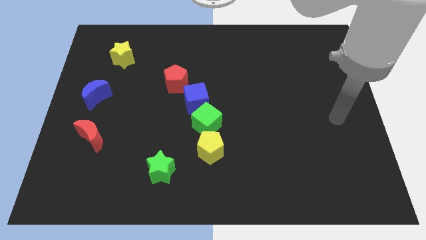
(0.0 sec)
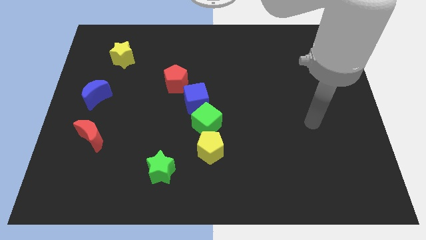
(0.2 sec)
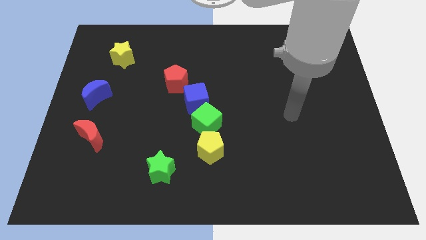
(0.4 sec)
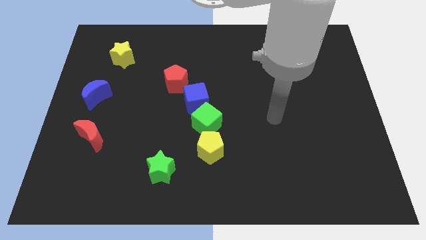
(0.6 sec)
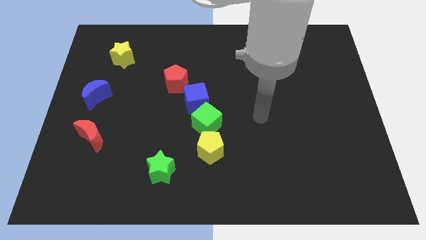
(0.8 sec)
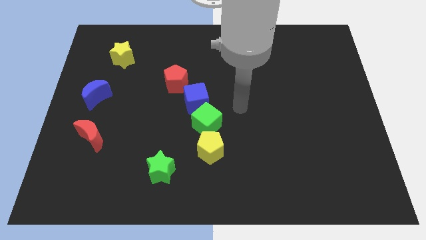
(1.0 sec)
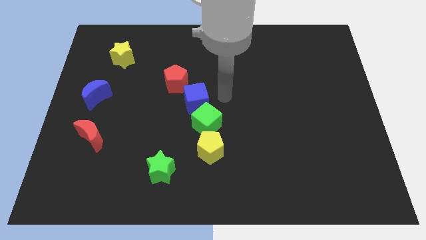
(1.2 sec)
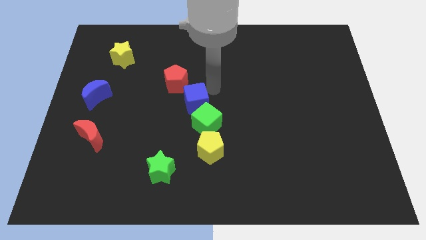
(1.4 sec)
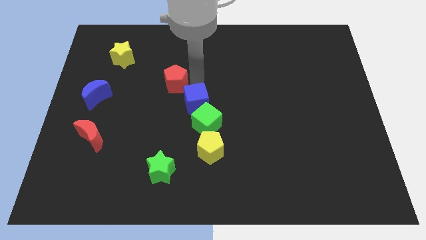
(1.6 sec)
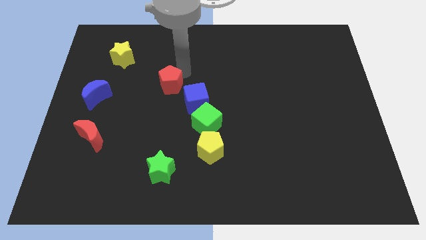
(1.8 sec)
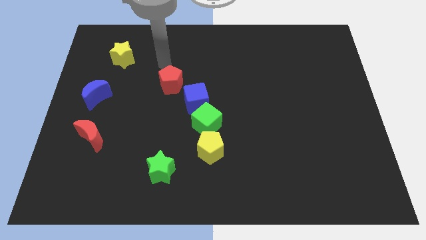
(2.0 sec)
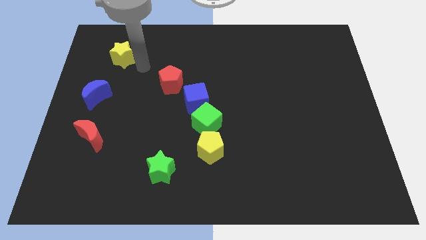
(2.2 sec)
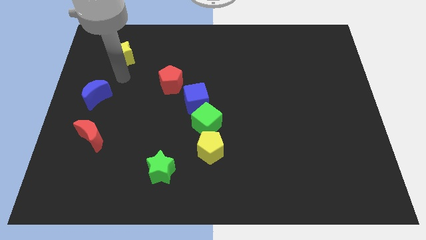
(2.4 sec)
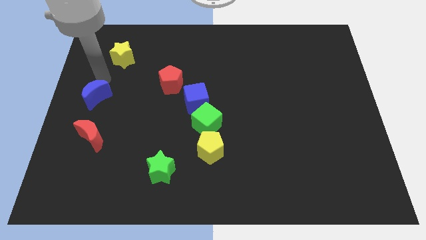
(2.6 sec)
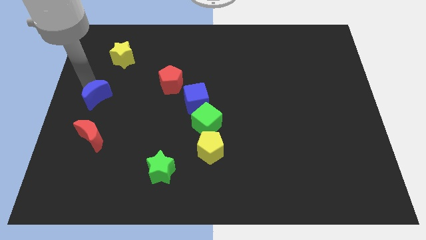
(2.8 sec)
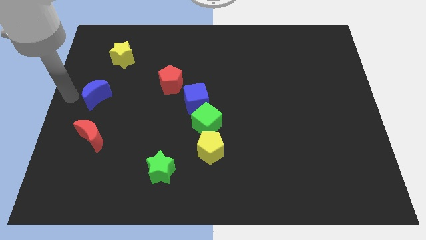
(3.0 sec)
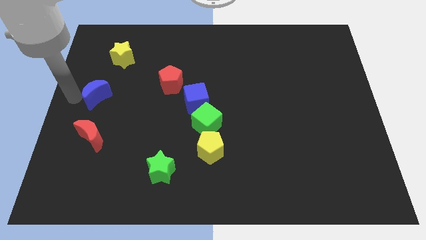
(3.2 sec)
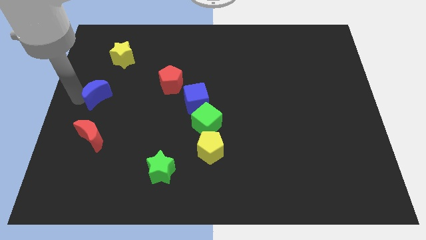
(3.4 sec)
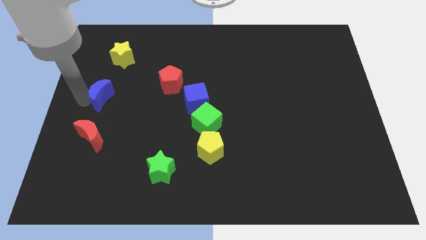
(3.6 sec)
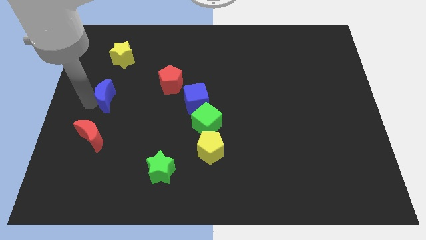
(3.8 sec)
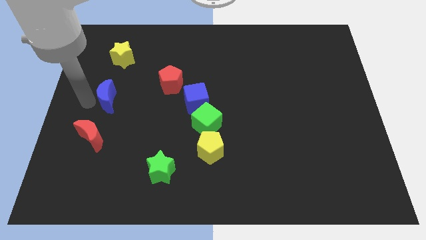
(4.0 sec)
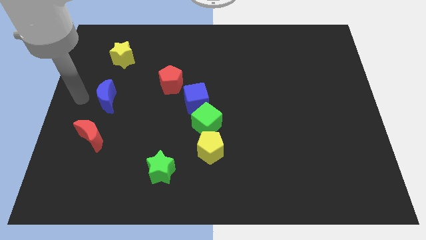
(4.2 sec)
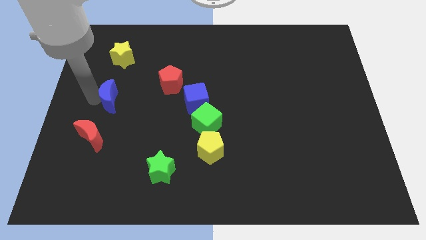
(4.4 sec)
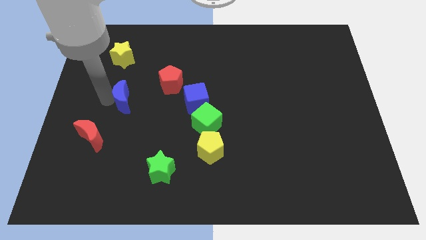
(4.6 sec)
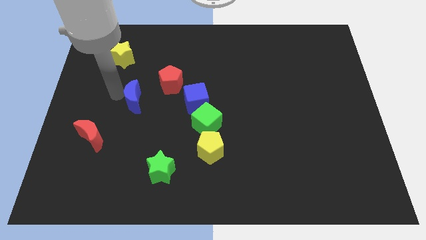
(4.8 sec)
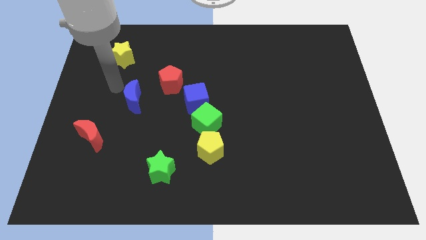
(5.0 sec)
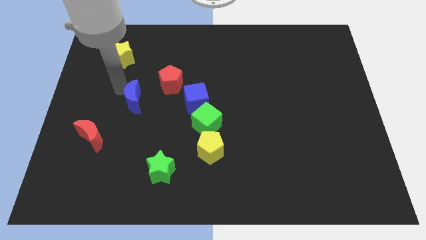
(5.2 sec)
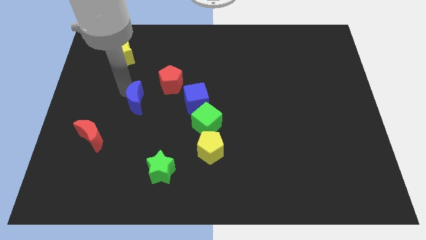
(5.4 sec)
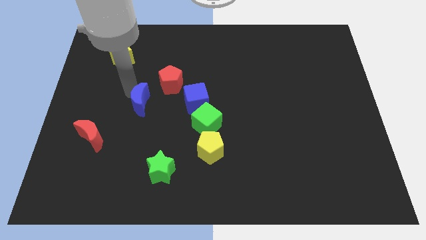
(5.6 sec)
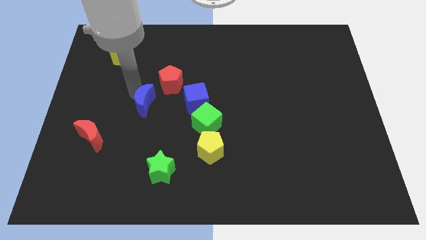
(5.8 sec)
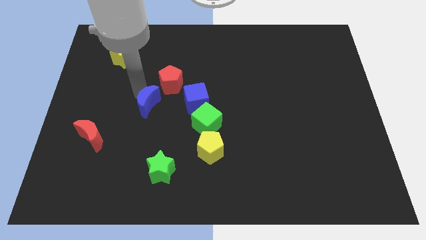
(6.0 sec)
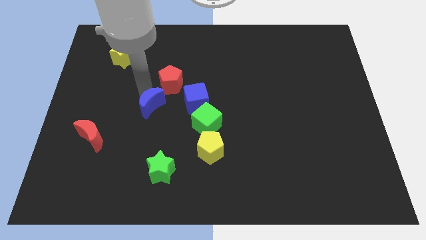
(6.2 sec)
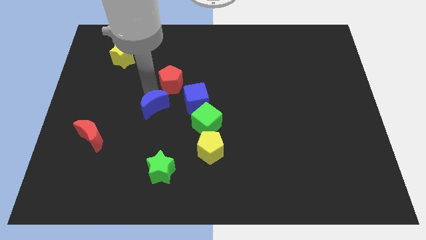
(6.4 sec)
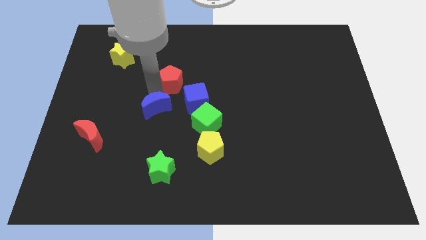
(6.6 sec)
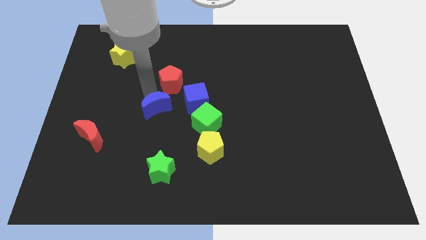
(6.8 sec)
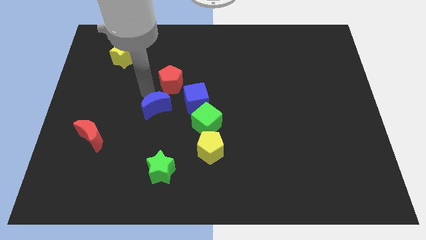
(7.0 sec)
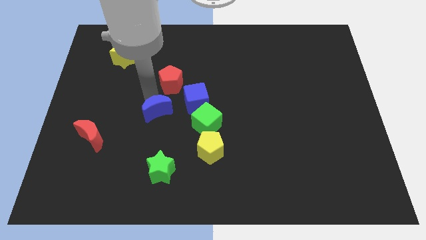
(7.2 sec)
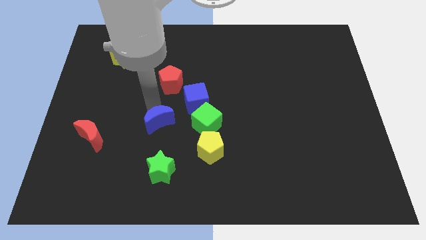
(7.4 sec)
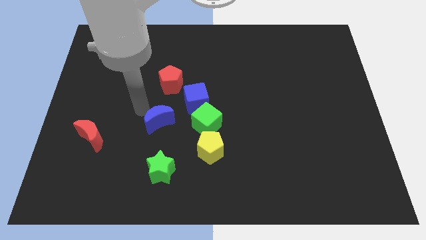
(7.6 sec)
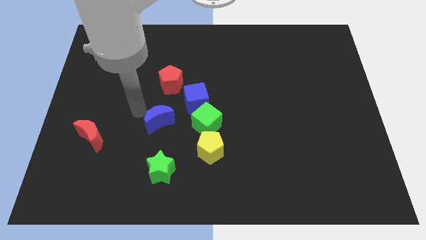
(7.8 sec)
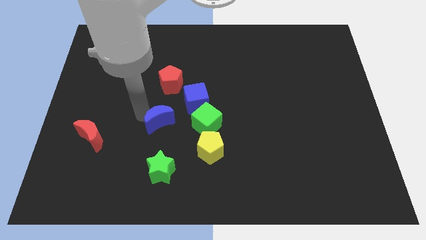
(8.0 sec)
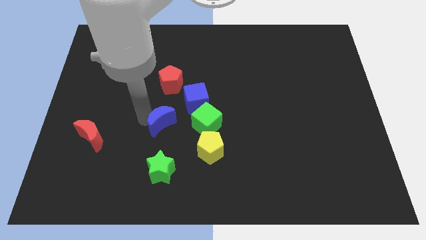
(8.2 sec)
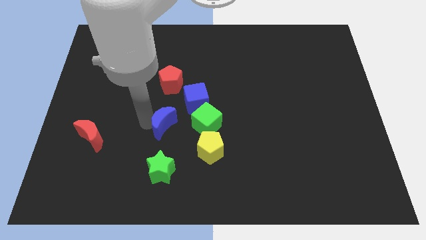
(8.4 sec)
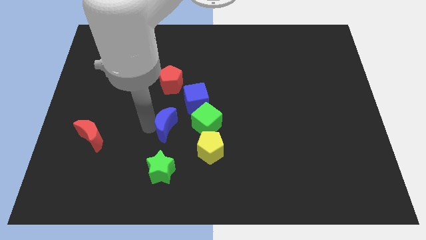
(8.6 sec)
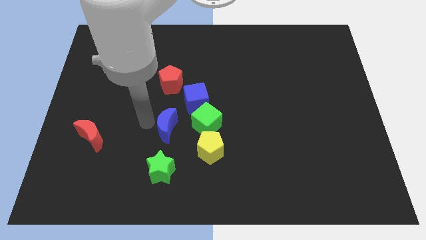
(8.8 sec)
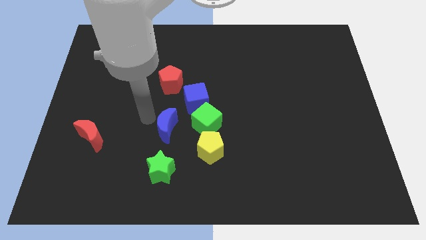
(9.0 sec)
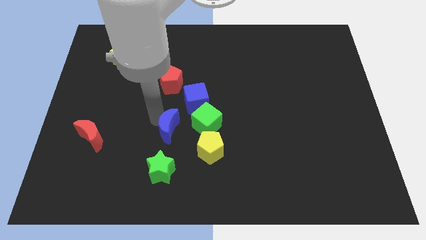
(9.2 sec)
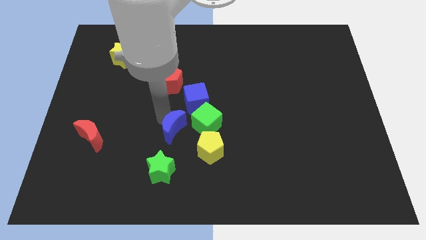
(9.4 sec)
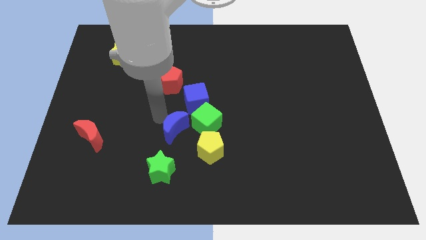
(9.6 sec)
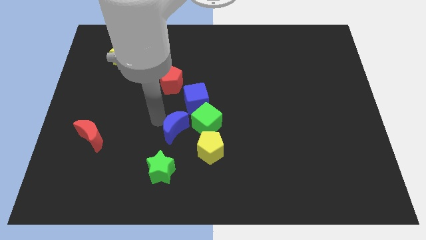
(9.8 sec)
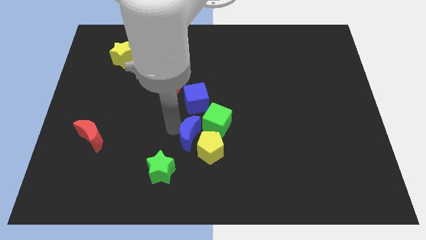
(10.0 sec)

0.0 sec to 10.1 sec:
slide the blue moon to the yellow pentagon

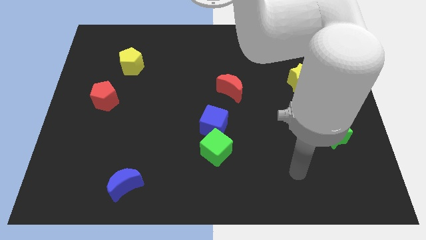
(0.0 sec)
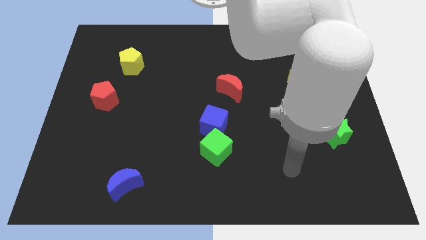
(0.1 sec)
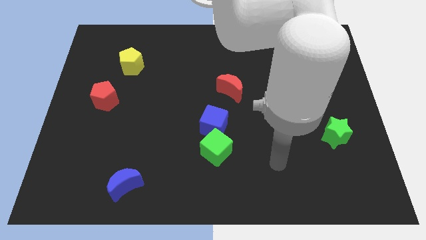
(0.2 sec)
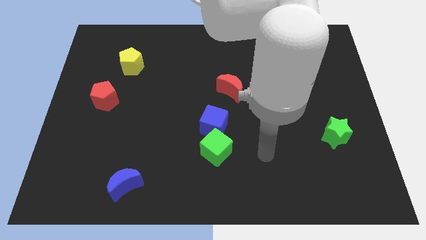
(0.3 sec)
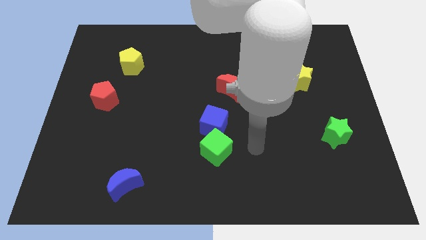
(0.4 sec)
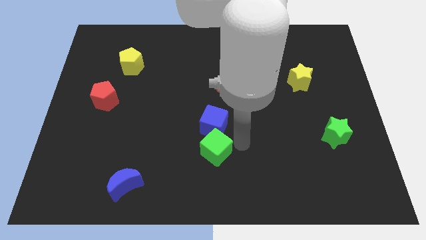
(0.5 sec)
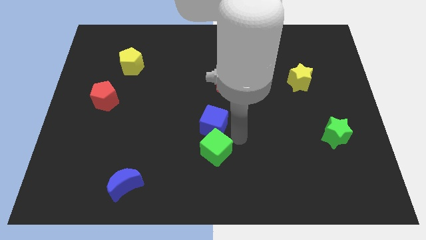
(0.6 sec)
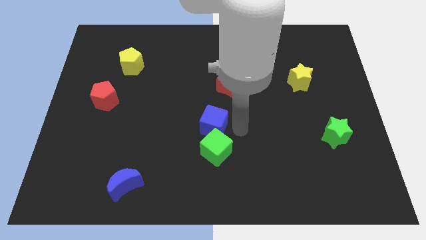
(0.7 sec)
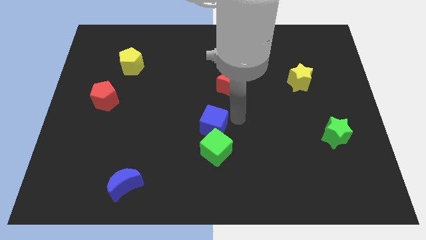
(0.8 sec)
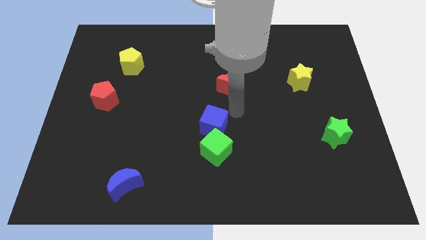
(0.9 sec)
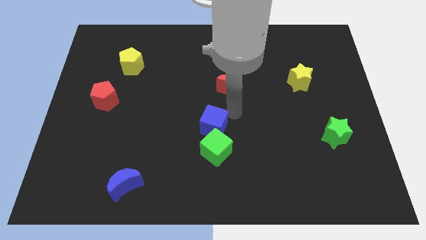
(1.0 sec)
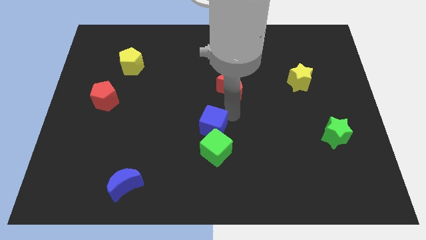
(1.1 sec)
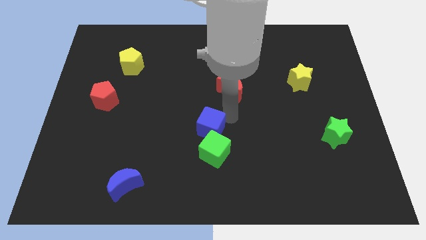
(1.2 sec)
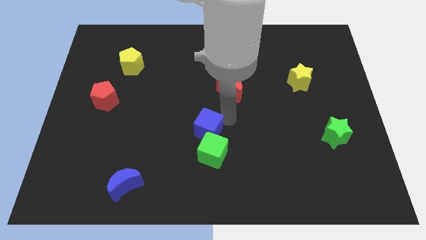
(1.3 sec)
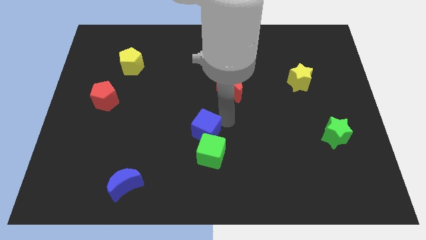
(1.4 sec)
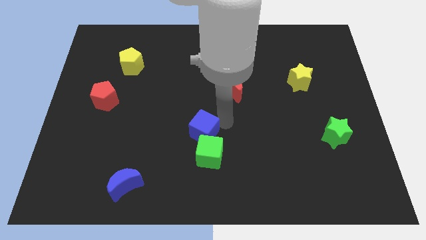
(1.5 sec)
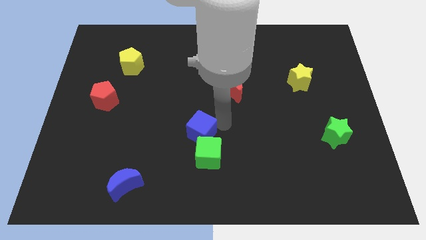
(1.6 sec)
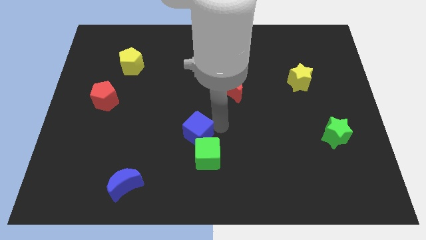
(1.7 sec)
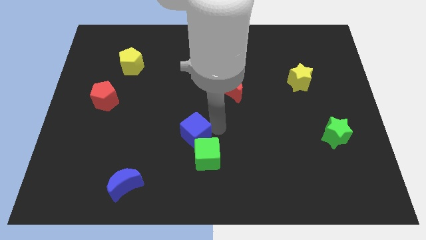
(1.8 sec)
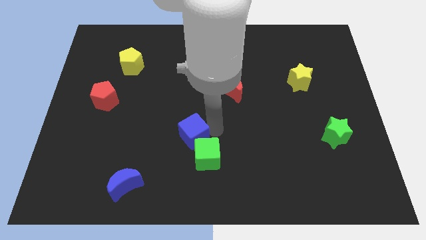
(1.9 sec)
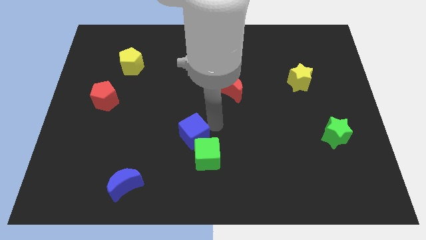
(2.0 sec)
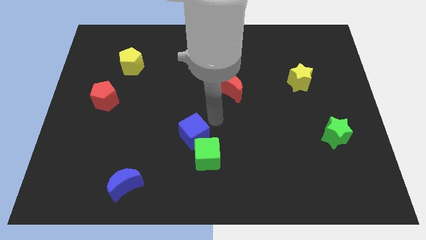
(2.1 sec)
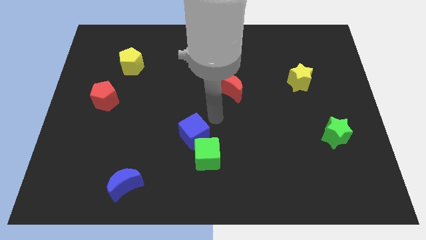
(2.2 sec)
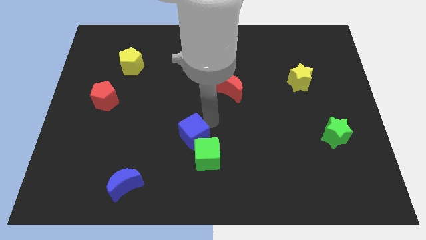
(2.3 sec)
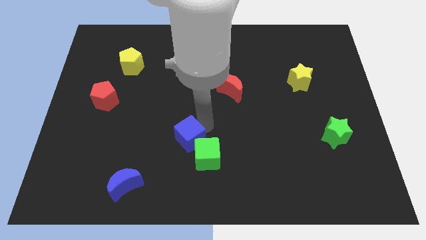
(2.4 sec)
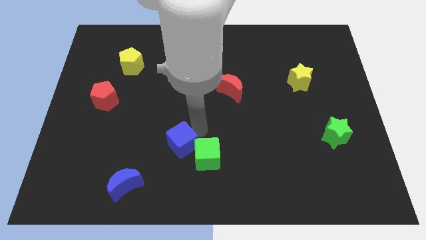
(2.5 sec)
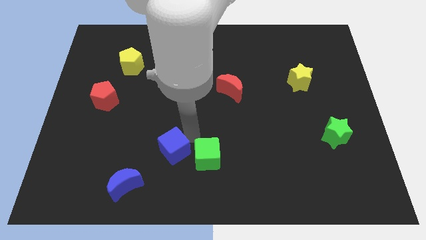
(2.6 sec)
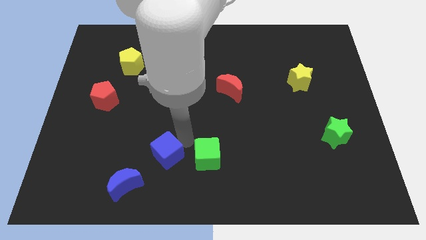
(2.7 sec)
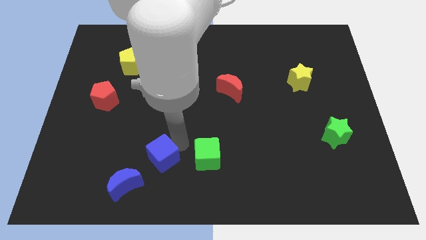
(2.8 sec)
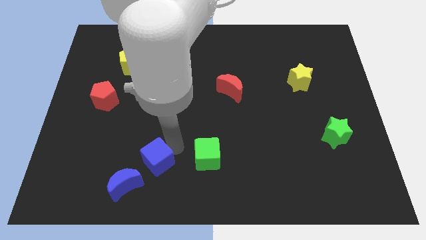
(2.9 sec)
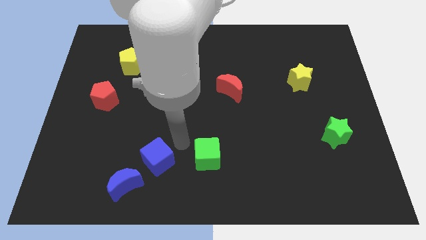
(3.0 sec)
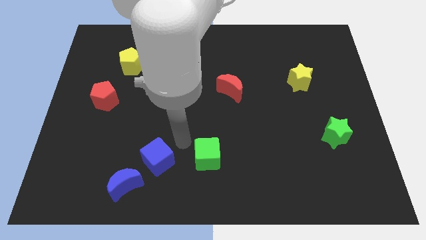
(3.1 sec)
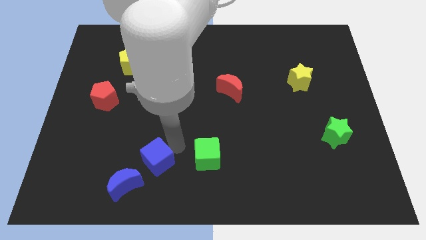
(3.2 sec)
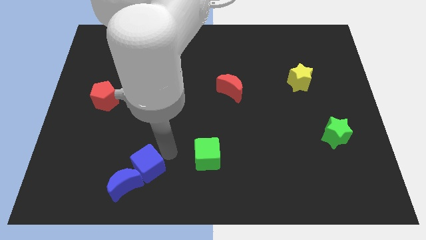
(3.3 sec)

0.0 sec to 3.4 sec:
slide the blue cube towards the blue moon
